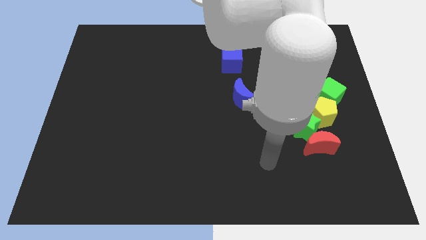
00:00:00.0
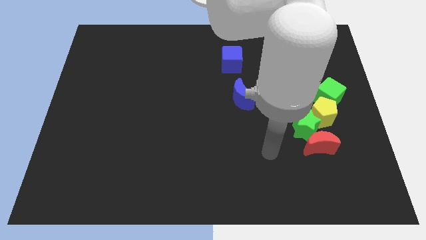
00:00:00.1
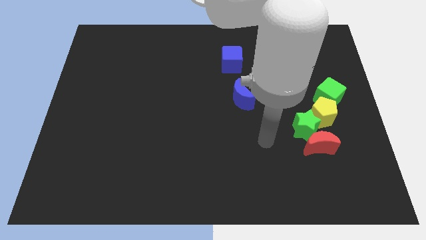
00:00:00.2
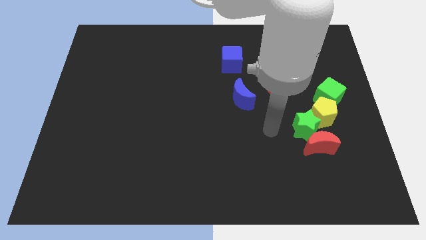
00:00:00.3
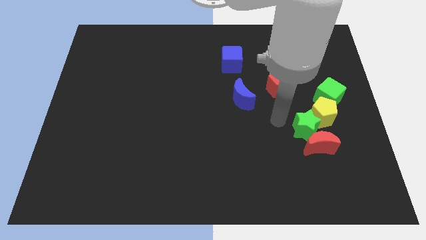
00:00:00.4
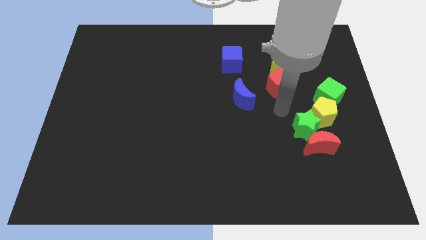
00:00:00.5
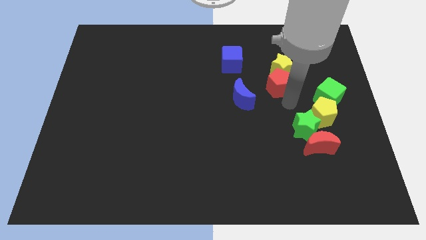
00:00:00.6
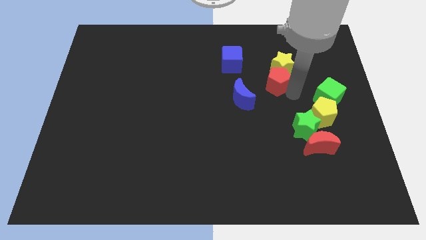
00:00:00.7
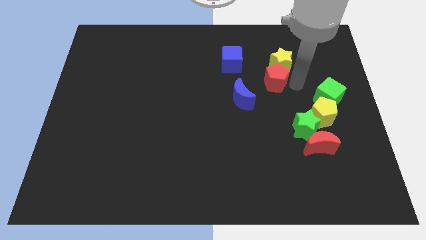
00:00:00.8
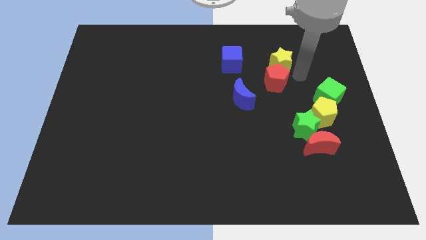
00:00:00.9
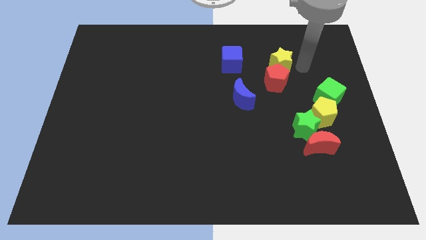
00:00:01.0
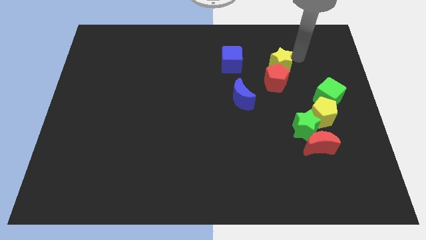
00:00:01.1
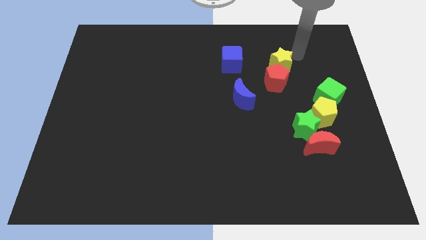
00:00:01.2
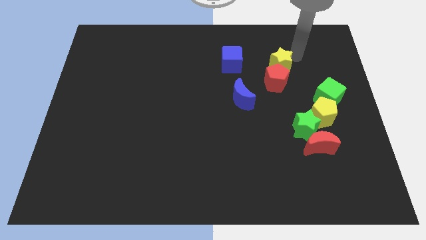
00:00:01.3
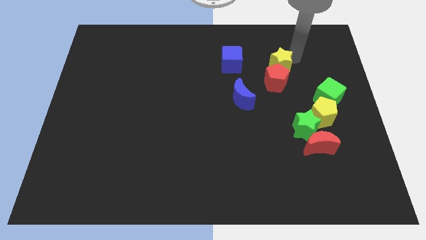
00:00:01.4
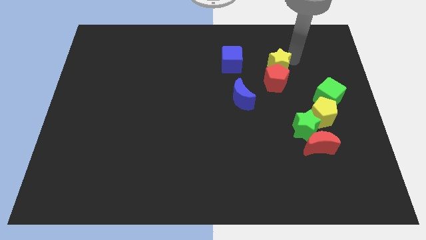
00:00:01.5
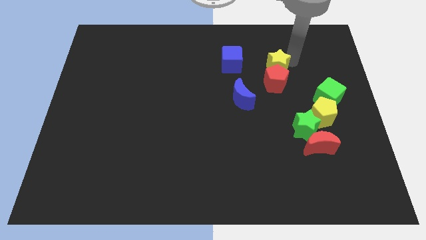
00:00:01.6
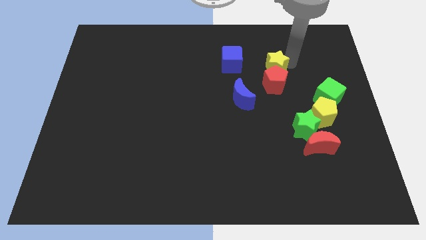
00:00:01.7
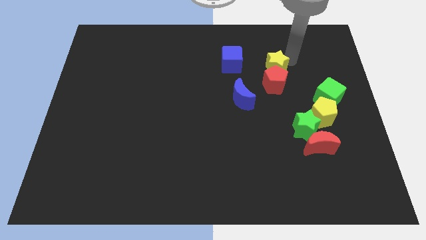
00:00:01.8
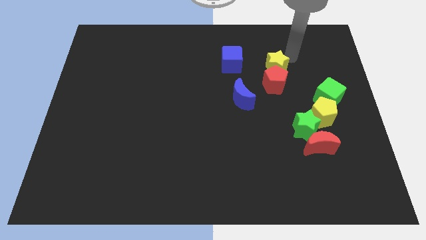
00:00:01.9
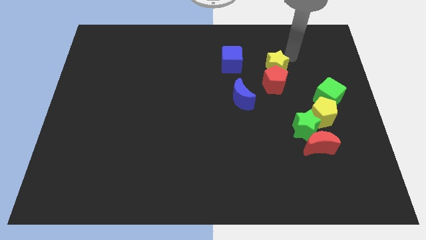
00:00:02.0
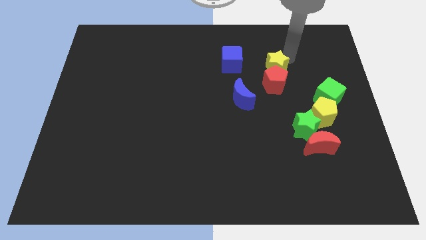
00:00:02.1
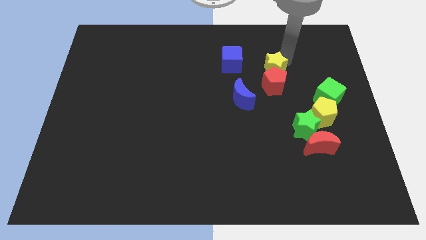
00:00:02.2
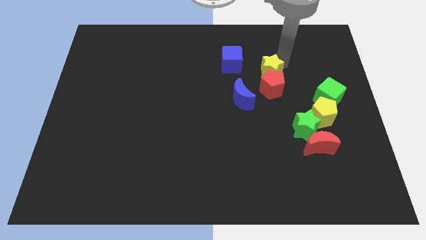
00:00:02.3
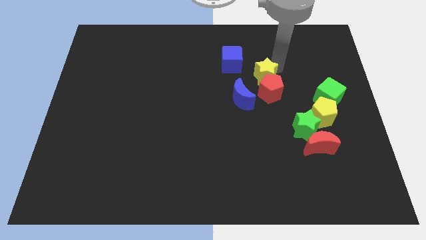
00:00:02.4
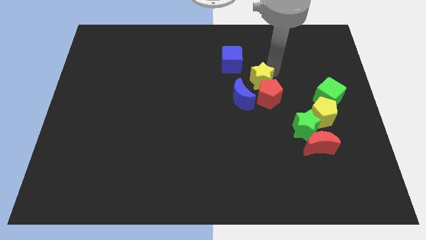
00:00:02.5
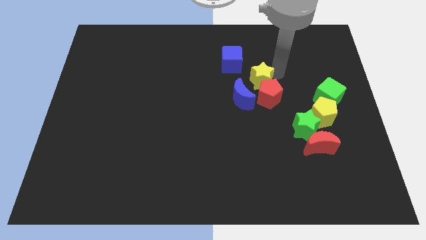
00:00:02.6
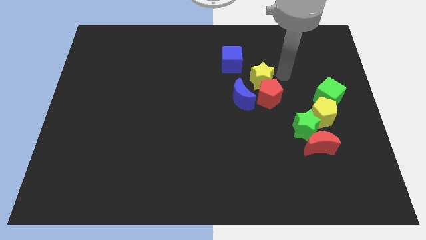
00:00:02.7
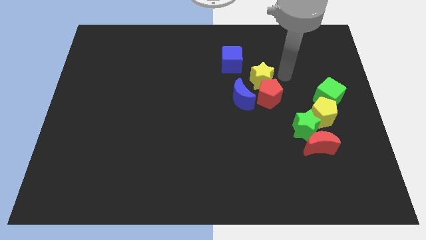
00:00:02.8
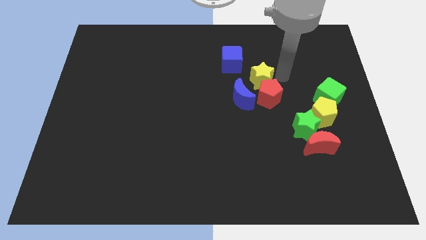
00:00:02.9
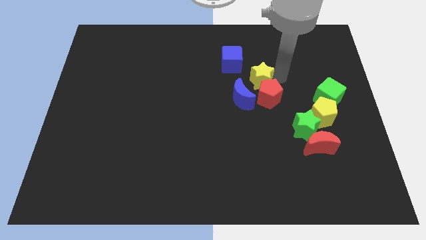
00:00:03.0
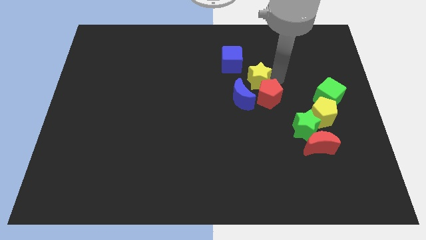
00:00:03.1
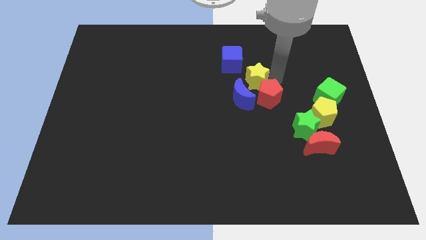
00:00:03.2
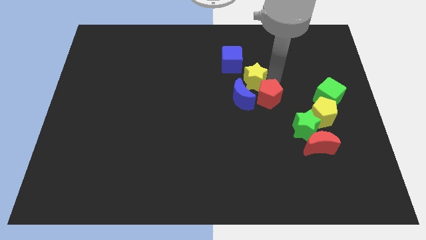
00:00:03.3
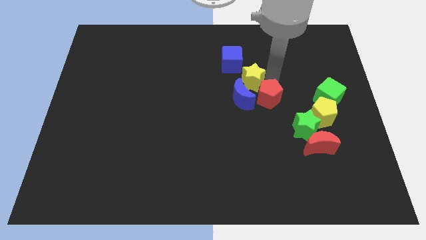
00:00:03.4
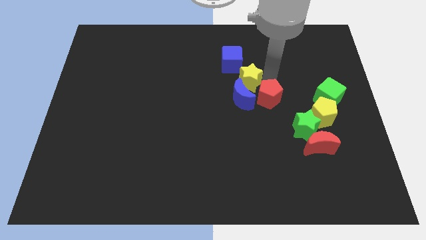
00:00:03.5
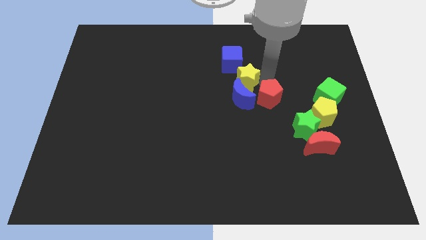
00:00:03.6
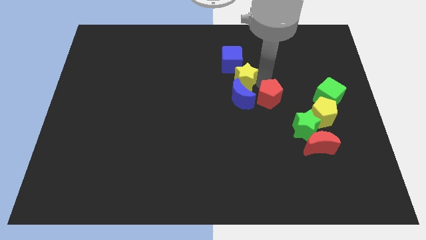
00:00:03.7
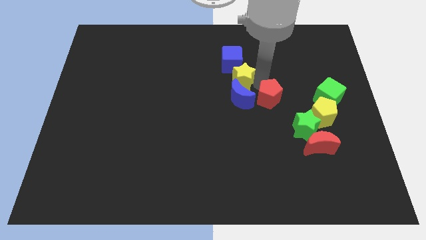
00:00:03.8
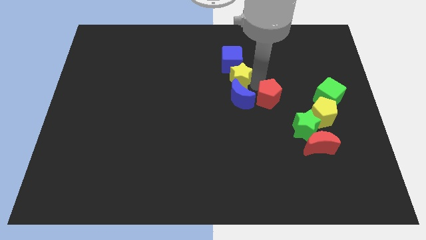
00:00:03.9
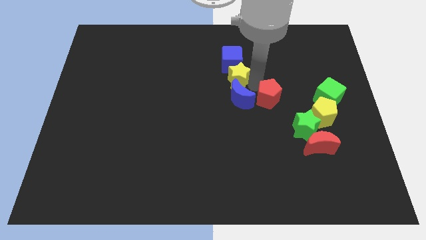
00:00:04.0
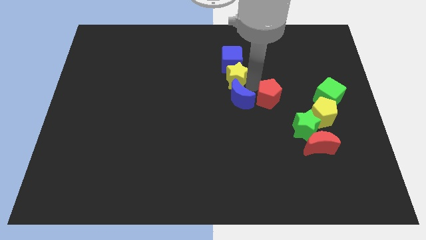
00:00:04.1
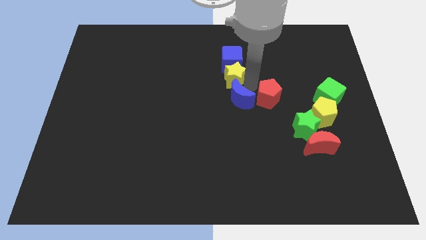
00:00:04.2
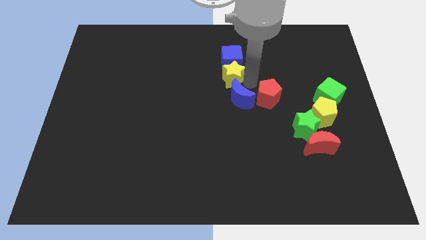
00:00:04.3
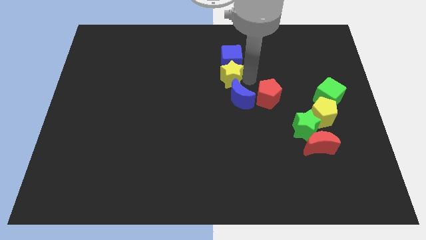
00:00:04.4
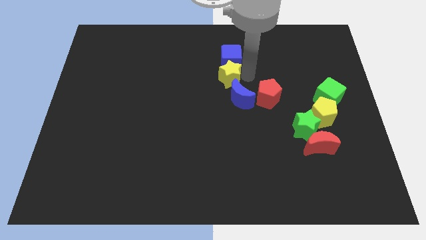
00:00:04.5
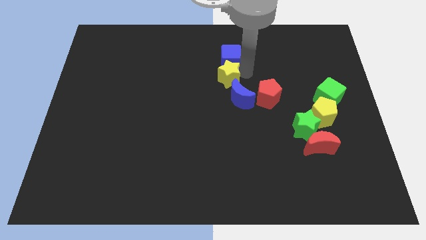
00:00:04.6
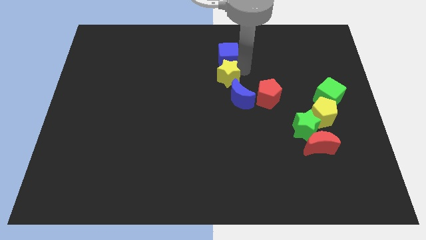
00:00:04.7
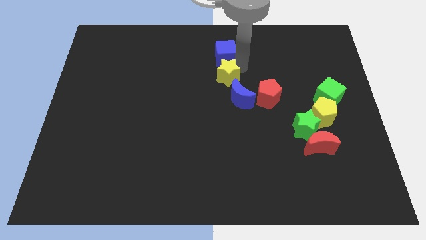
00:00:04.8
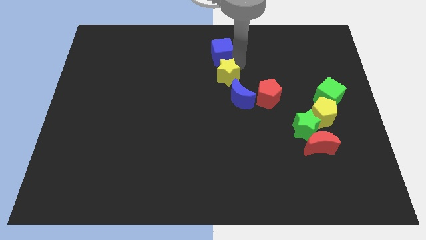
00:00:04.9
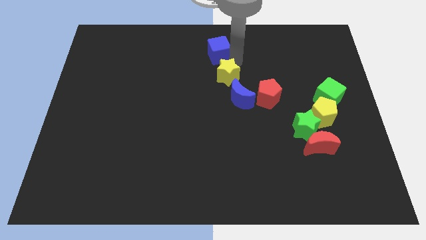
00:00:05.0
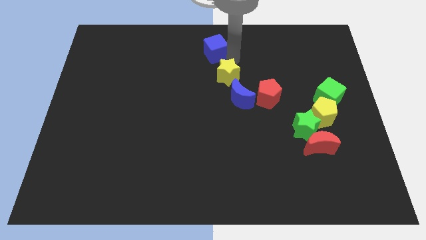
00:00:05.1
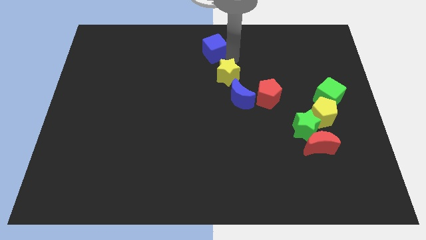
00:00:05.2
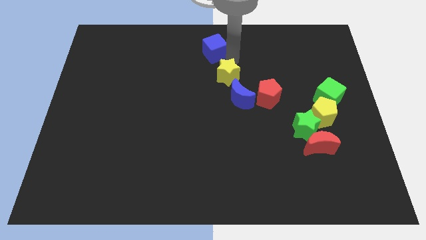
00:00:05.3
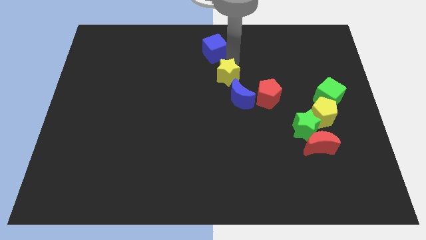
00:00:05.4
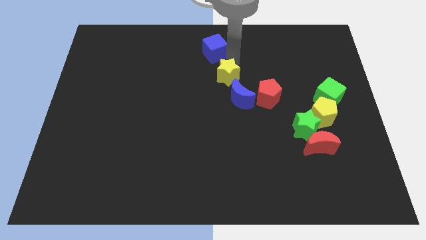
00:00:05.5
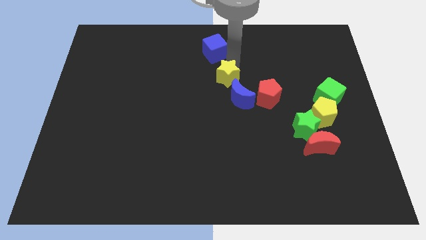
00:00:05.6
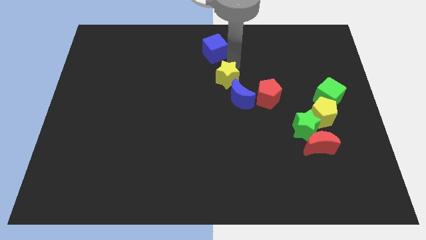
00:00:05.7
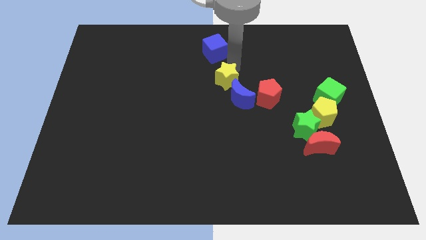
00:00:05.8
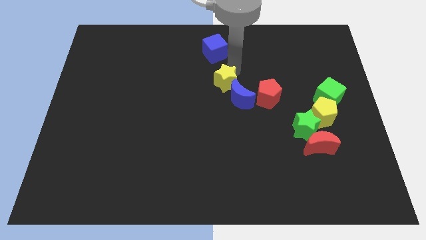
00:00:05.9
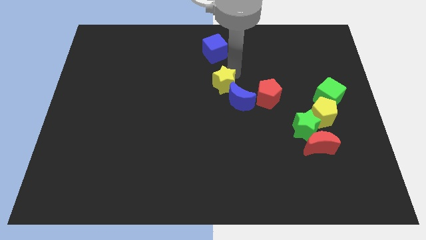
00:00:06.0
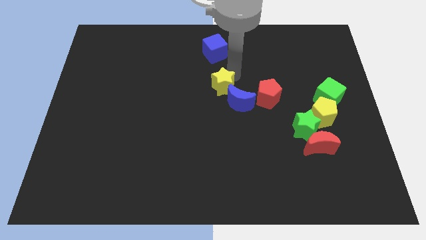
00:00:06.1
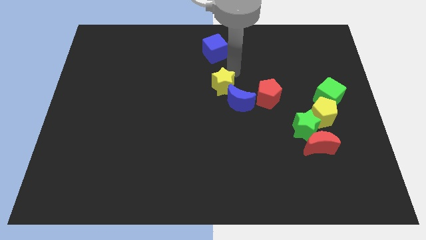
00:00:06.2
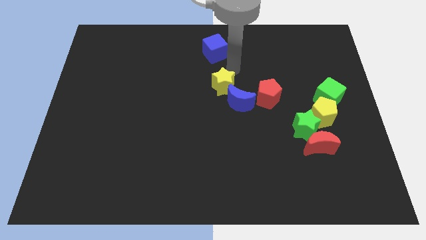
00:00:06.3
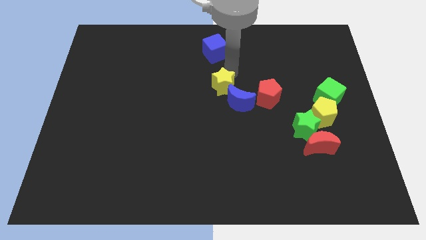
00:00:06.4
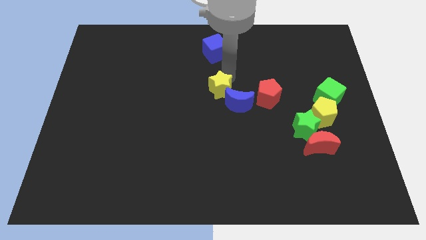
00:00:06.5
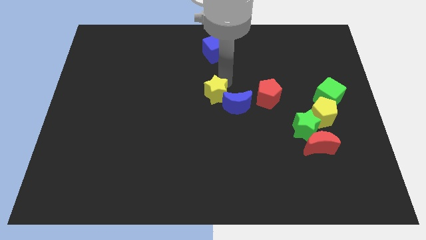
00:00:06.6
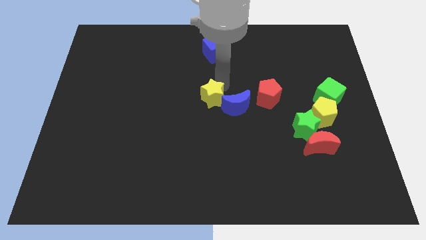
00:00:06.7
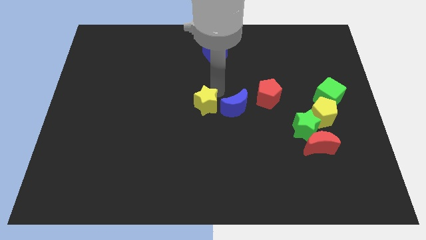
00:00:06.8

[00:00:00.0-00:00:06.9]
push the yellow star downwards and to the left

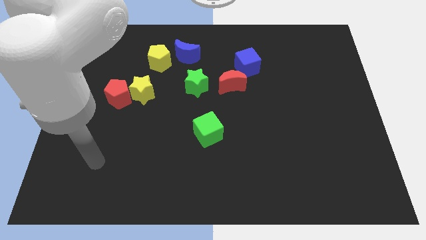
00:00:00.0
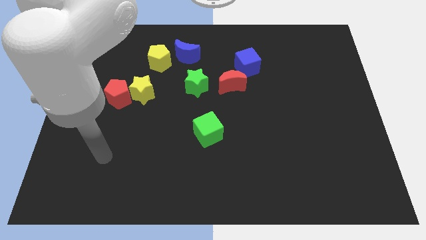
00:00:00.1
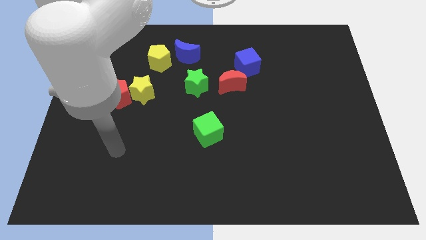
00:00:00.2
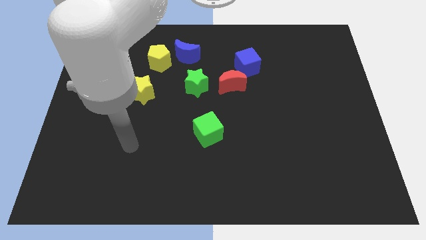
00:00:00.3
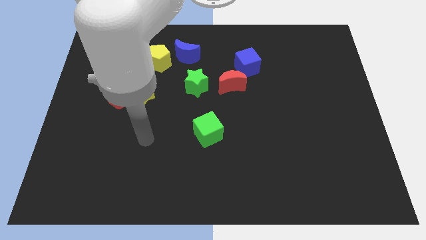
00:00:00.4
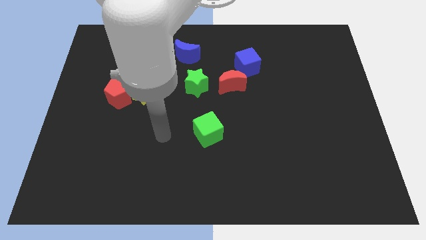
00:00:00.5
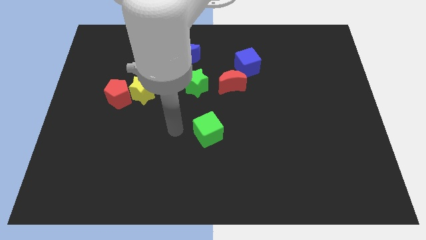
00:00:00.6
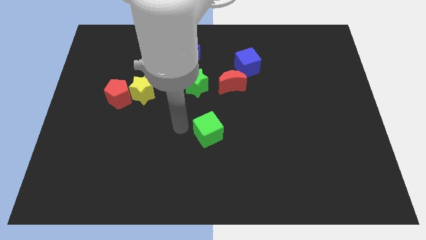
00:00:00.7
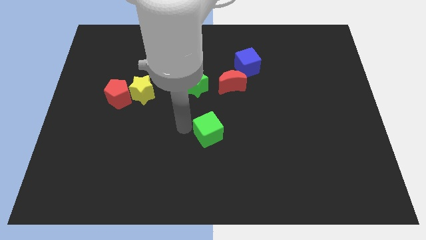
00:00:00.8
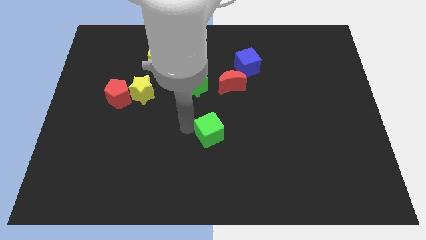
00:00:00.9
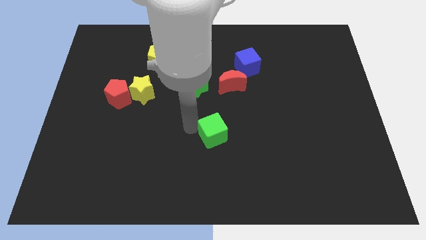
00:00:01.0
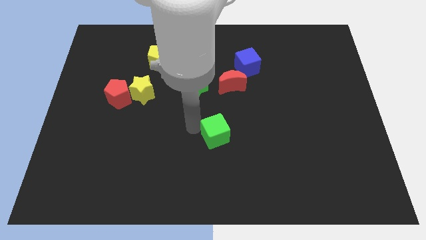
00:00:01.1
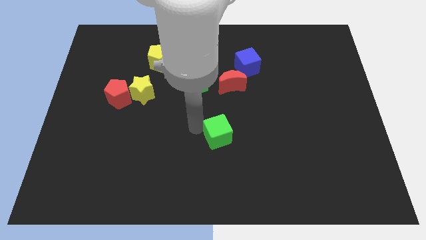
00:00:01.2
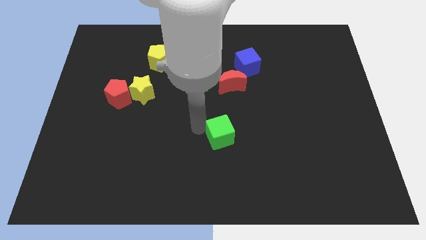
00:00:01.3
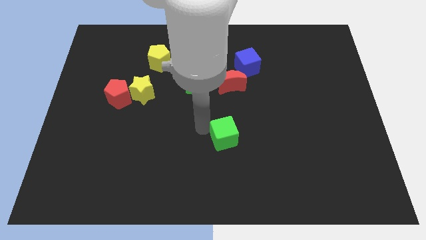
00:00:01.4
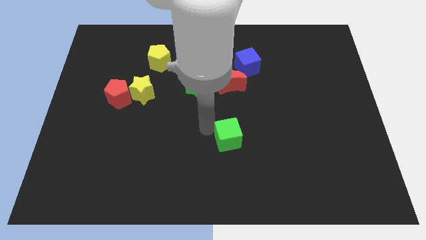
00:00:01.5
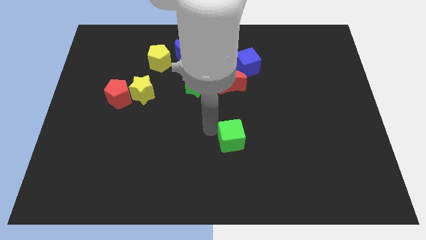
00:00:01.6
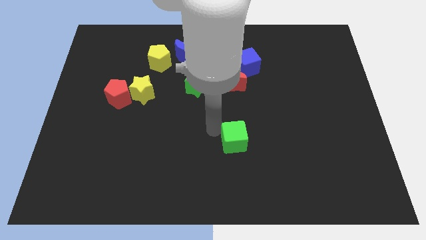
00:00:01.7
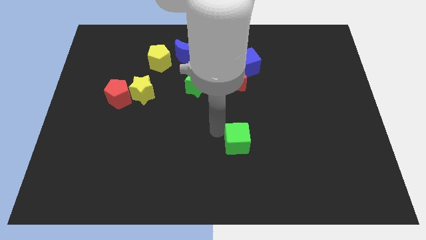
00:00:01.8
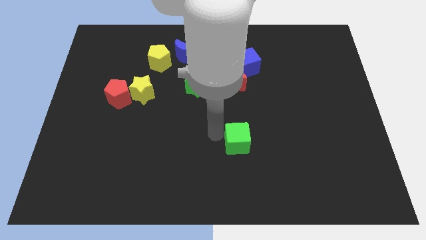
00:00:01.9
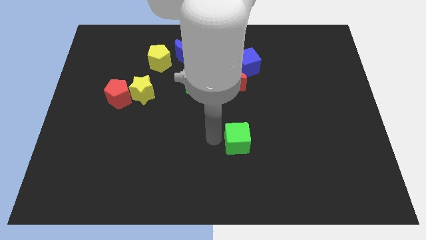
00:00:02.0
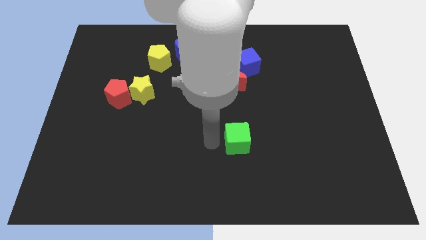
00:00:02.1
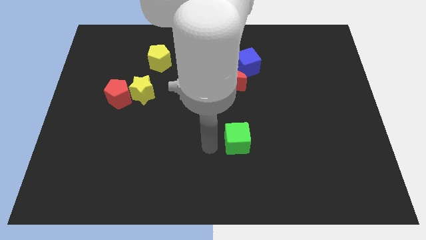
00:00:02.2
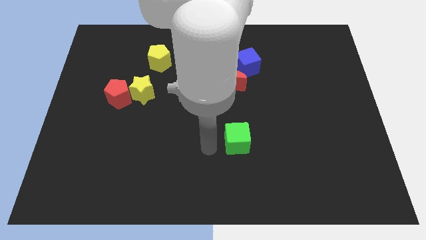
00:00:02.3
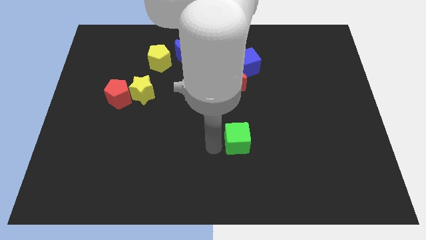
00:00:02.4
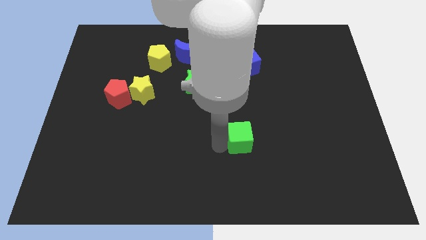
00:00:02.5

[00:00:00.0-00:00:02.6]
slide the green cube a little right
